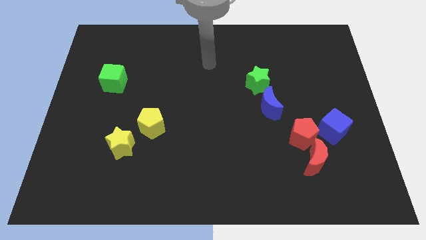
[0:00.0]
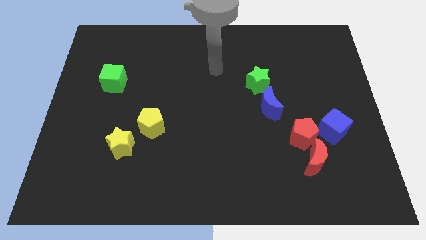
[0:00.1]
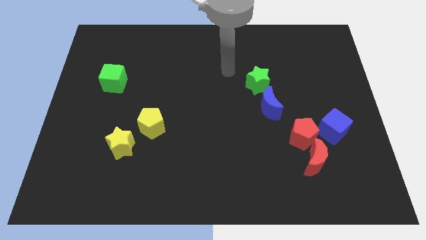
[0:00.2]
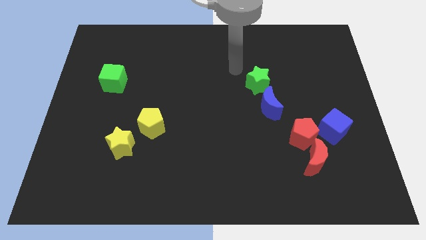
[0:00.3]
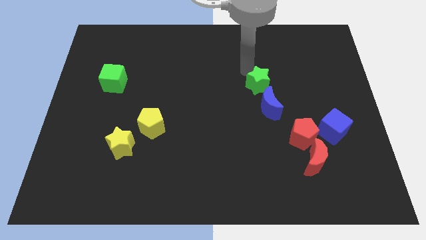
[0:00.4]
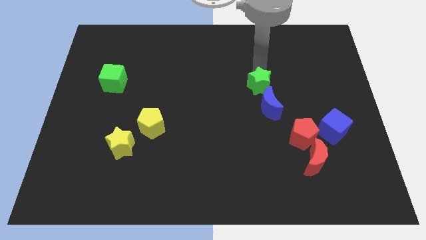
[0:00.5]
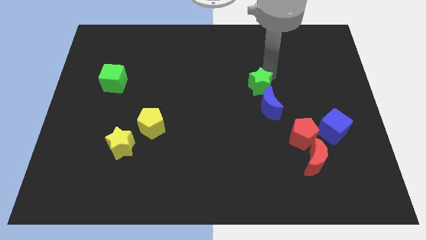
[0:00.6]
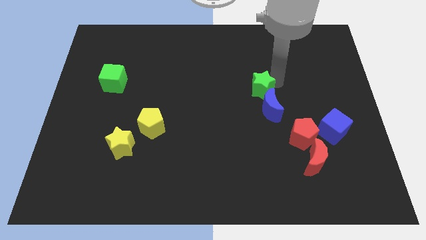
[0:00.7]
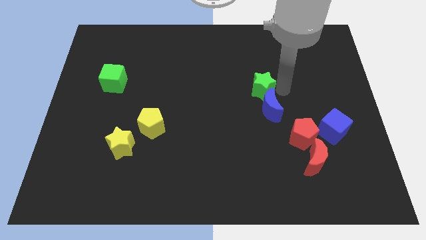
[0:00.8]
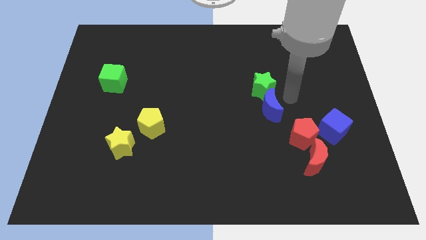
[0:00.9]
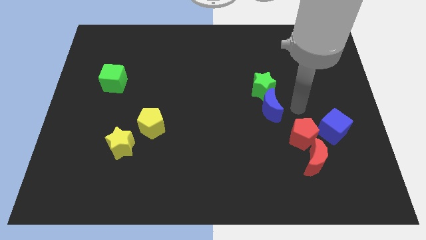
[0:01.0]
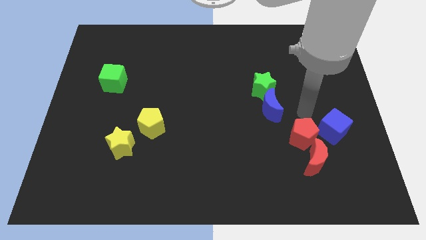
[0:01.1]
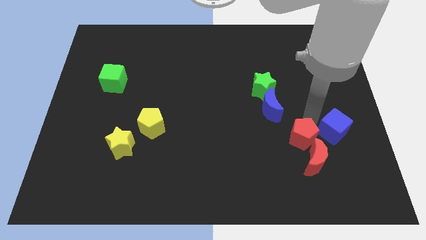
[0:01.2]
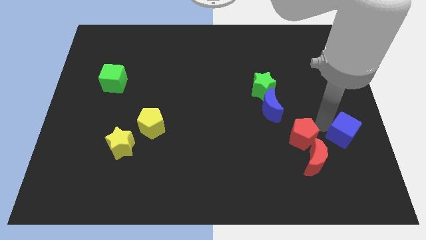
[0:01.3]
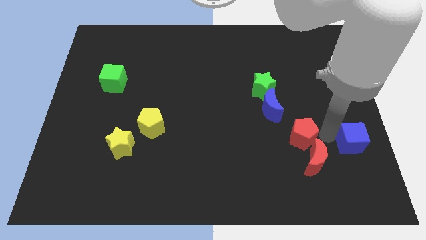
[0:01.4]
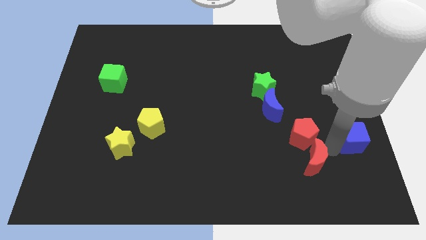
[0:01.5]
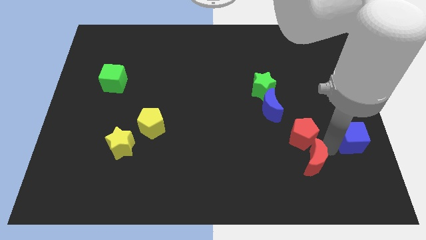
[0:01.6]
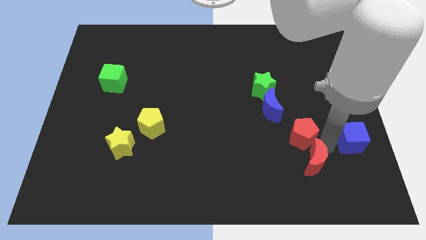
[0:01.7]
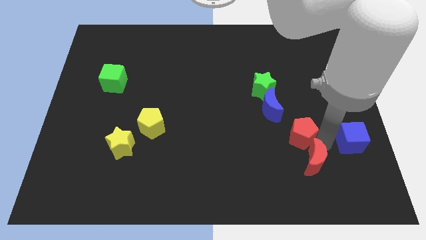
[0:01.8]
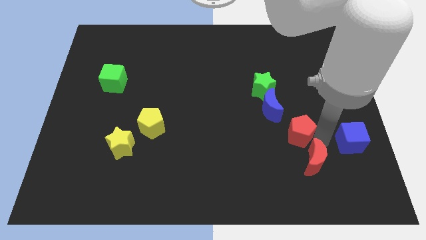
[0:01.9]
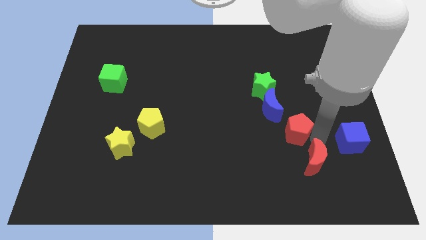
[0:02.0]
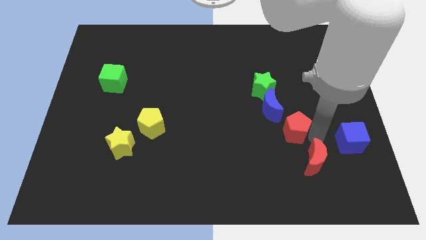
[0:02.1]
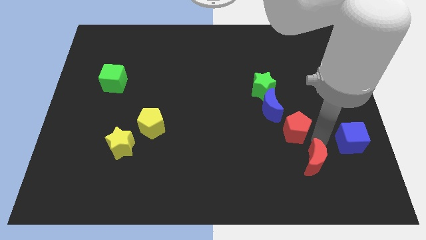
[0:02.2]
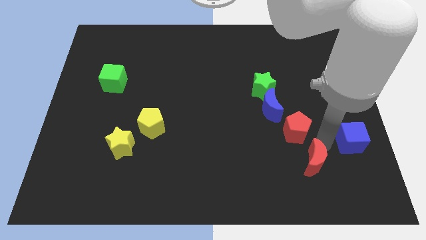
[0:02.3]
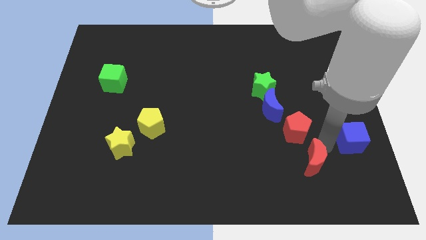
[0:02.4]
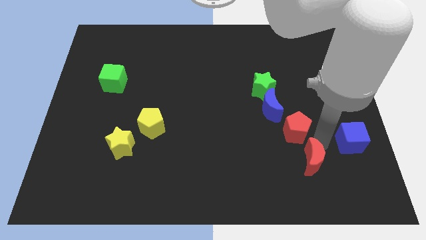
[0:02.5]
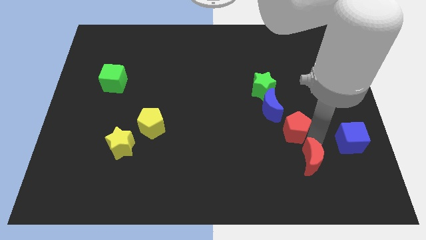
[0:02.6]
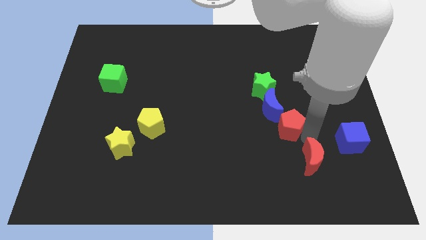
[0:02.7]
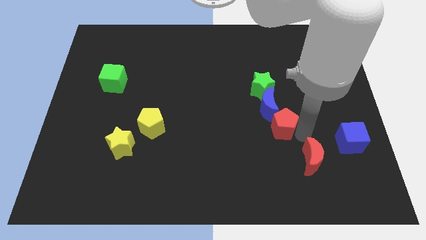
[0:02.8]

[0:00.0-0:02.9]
move the red pentagon away from the red moon and blue cube

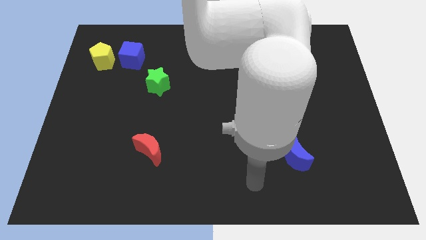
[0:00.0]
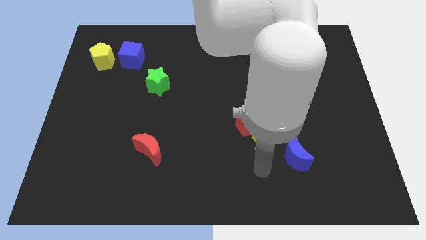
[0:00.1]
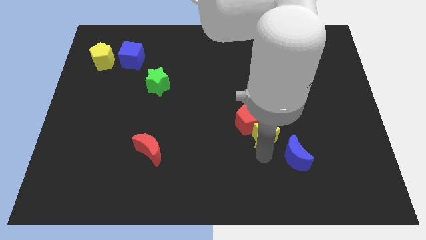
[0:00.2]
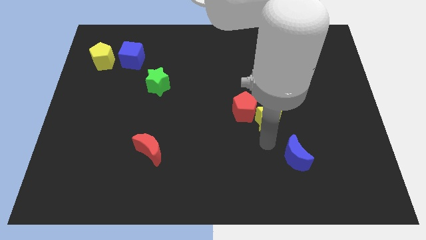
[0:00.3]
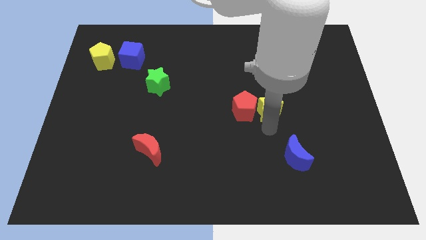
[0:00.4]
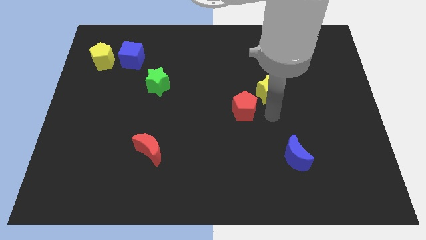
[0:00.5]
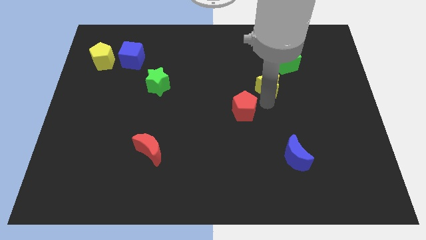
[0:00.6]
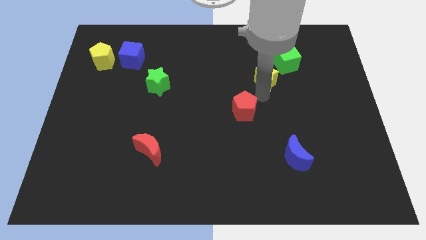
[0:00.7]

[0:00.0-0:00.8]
separate the red pentagon from the yellow star

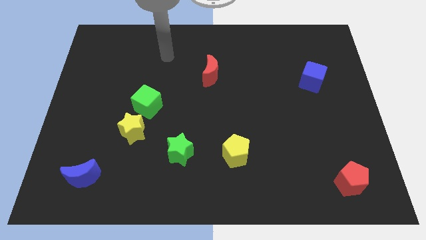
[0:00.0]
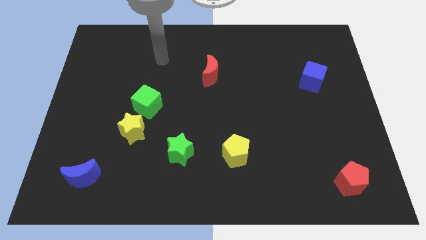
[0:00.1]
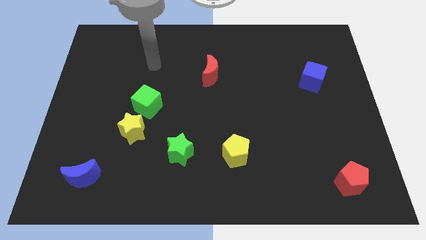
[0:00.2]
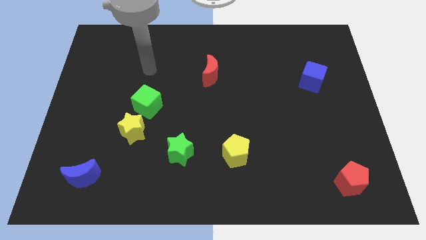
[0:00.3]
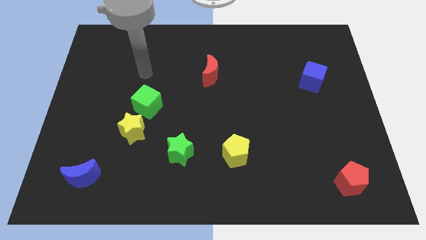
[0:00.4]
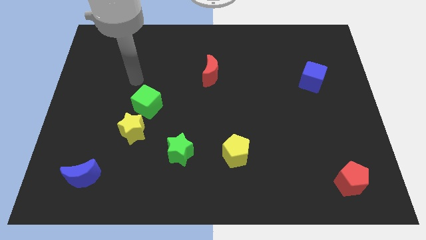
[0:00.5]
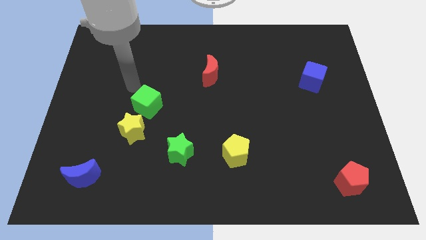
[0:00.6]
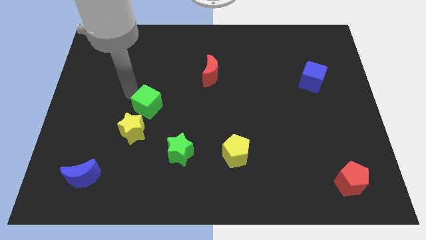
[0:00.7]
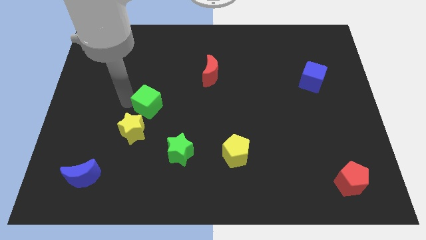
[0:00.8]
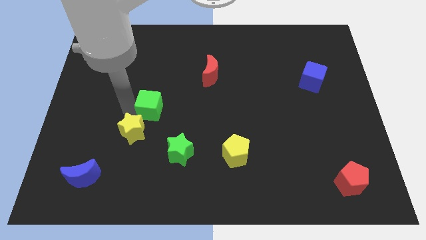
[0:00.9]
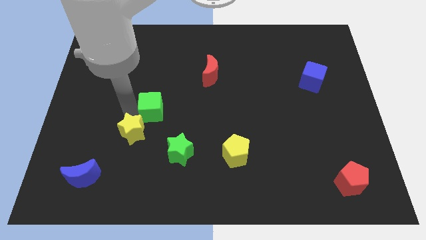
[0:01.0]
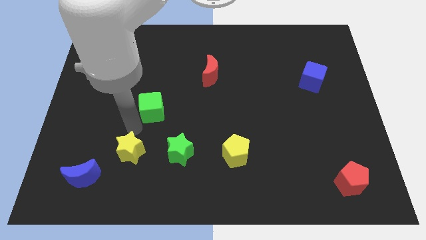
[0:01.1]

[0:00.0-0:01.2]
move the green cube away from the yellow star

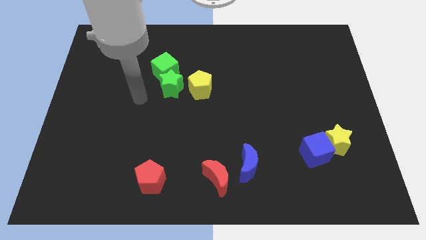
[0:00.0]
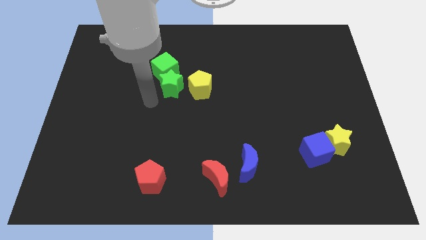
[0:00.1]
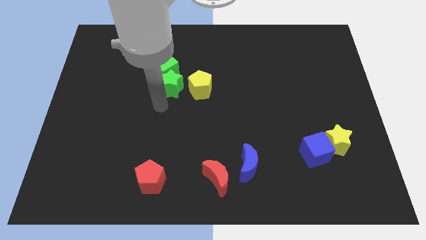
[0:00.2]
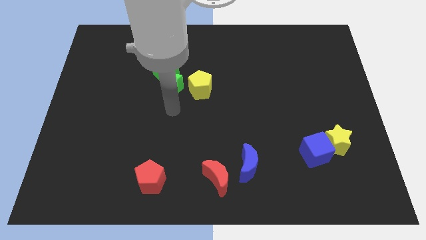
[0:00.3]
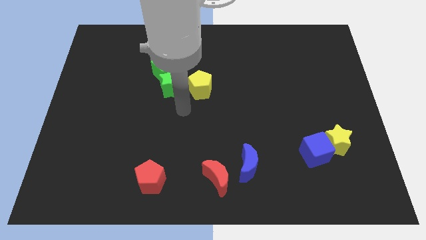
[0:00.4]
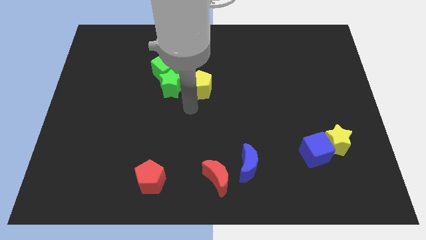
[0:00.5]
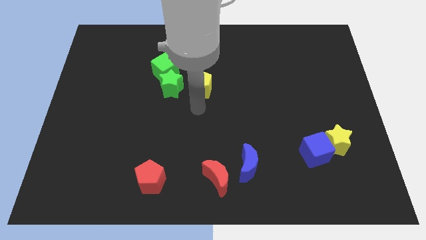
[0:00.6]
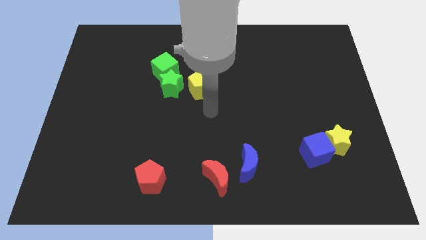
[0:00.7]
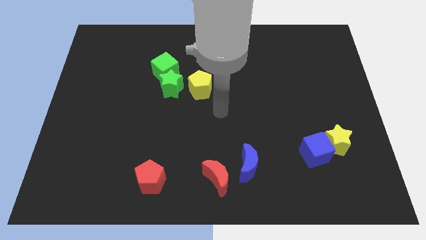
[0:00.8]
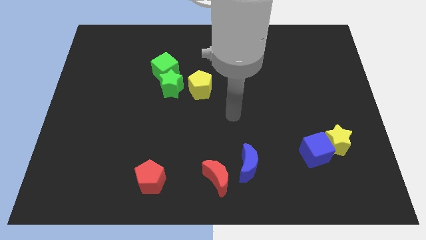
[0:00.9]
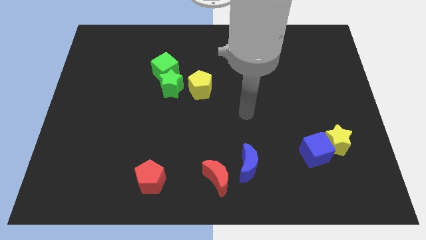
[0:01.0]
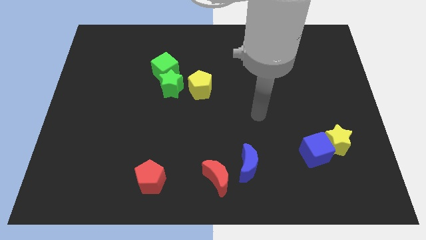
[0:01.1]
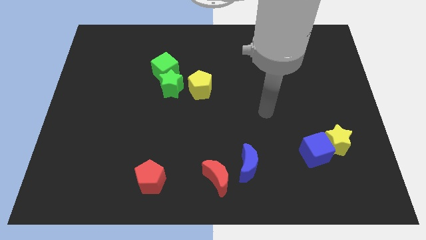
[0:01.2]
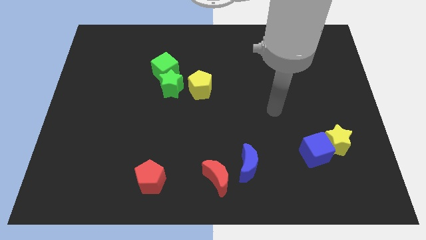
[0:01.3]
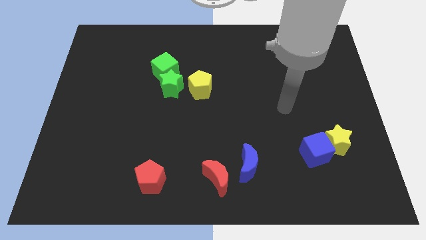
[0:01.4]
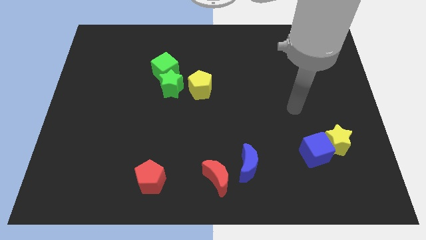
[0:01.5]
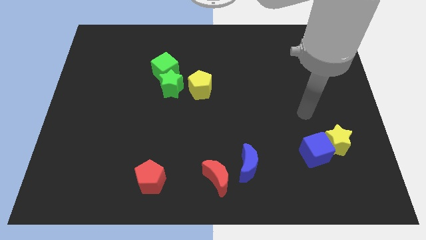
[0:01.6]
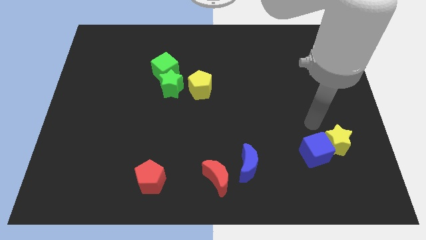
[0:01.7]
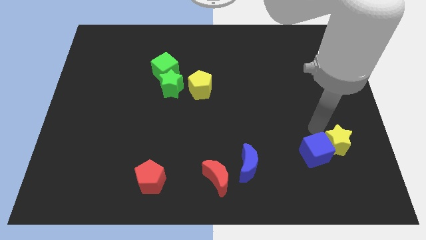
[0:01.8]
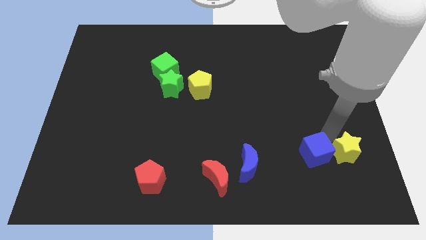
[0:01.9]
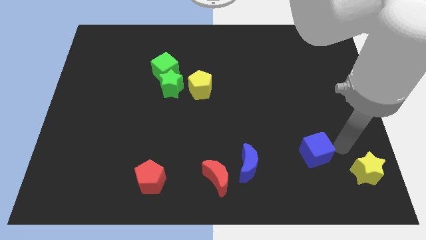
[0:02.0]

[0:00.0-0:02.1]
move the blue cube away from the yellow star

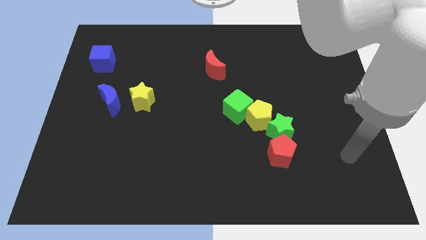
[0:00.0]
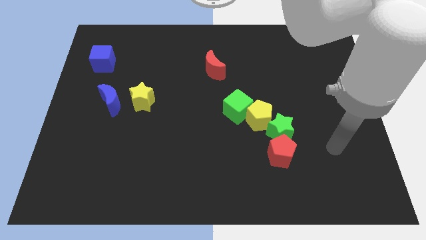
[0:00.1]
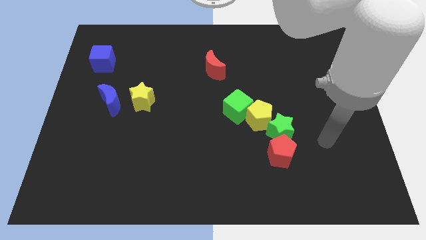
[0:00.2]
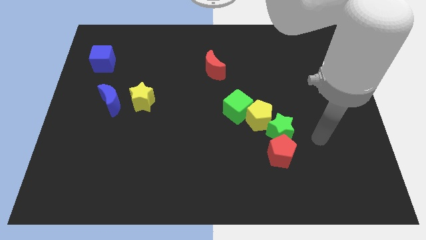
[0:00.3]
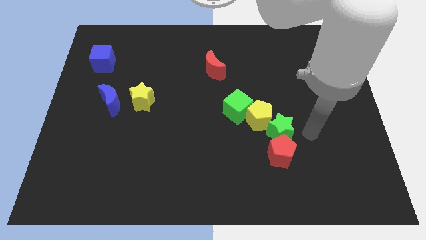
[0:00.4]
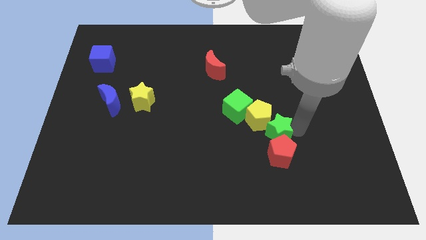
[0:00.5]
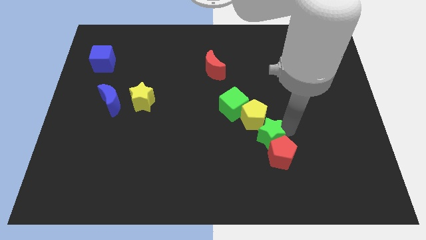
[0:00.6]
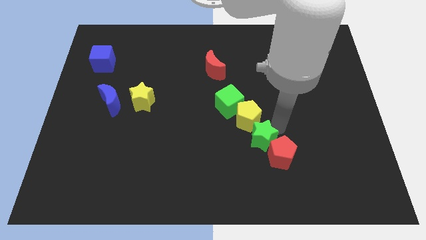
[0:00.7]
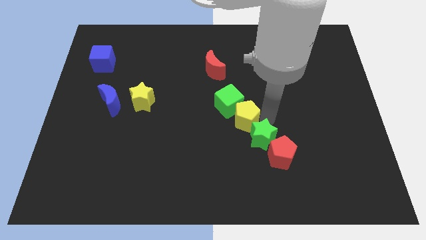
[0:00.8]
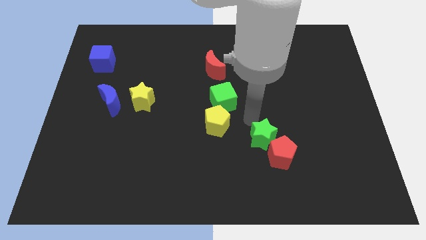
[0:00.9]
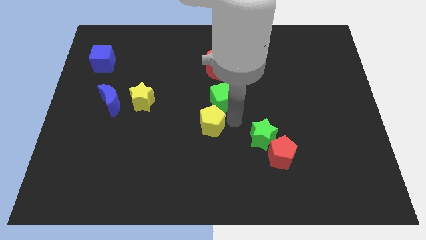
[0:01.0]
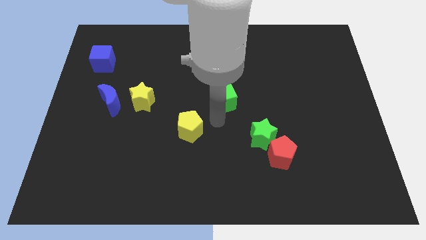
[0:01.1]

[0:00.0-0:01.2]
pull the green cube apart from the yellow pentagon

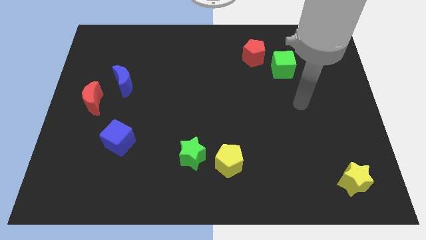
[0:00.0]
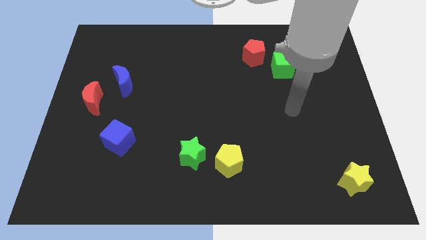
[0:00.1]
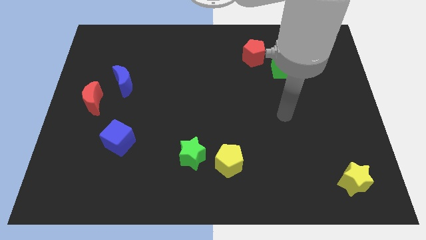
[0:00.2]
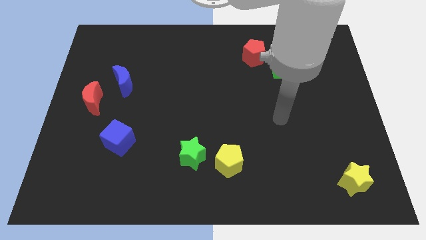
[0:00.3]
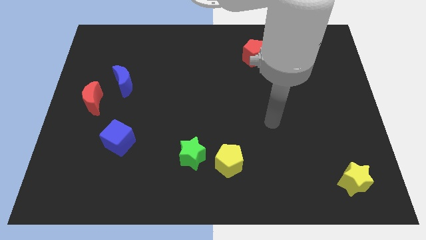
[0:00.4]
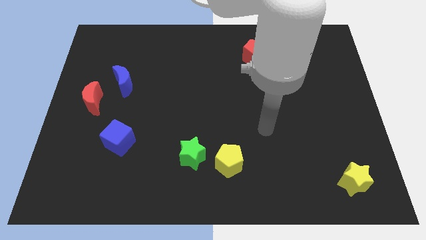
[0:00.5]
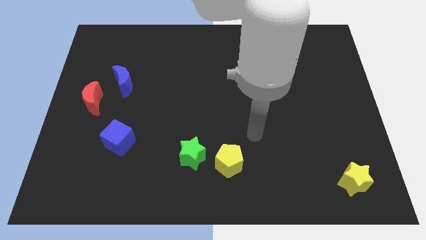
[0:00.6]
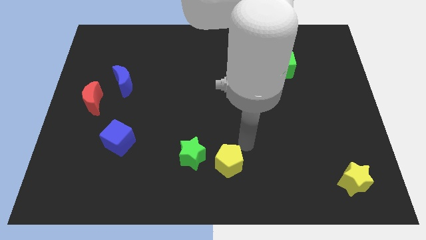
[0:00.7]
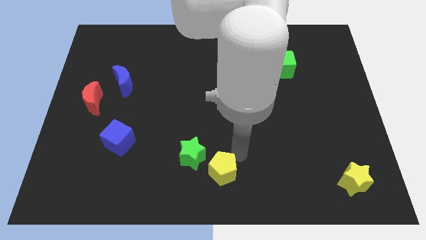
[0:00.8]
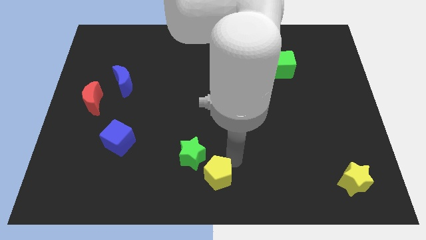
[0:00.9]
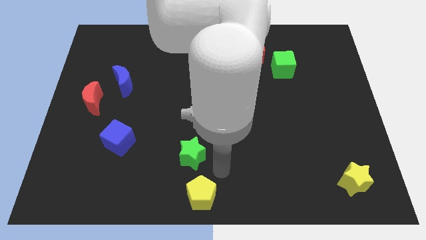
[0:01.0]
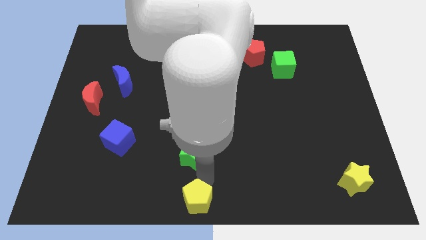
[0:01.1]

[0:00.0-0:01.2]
separate the green star from the yellow pentagon
